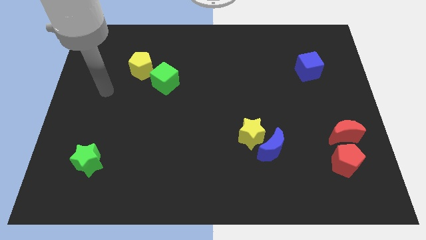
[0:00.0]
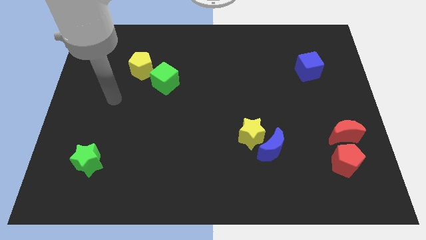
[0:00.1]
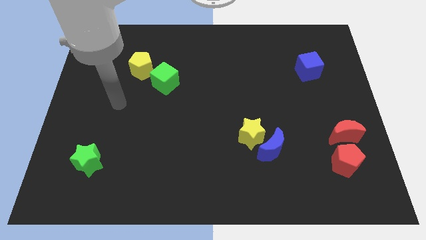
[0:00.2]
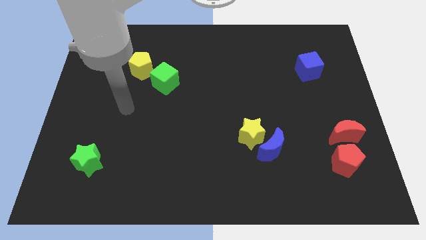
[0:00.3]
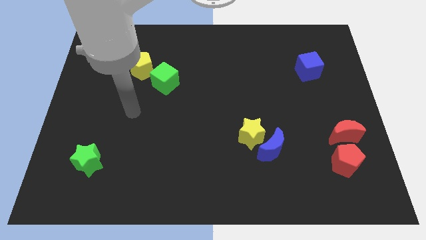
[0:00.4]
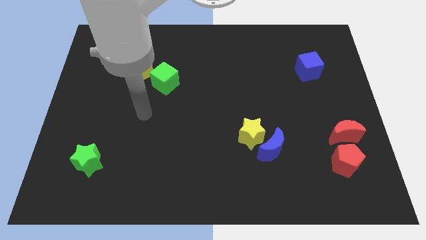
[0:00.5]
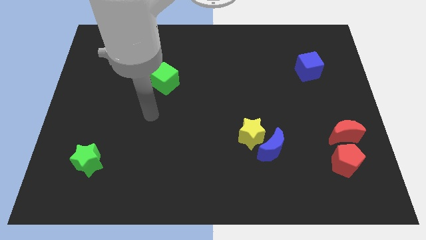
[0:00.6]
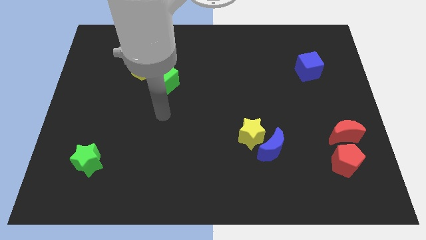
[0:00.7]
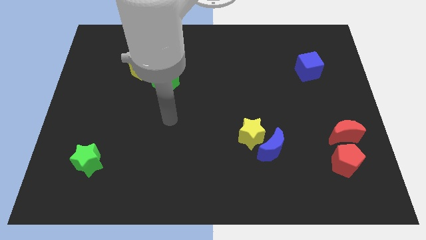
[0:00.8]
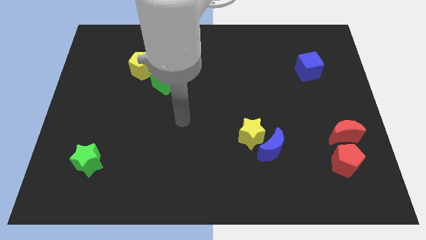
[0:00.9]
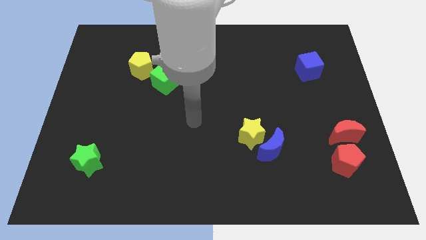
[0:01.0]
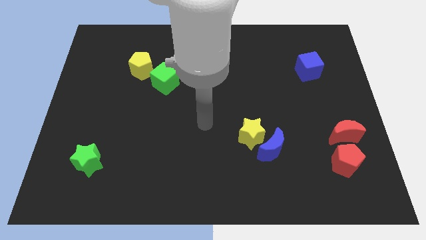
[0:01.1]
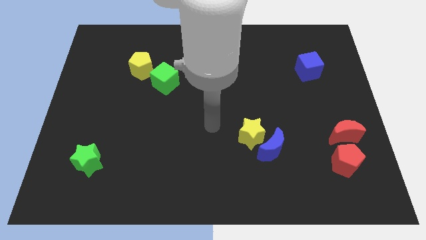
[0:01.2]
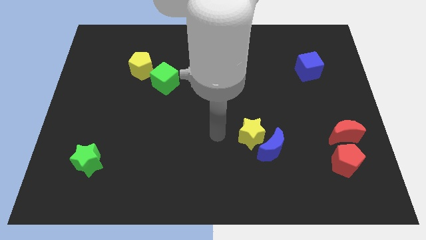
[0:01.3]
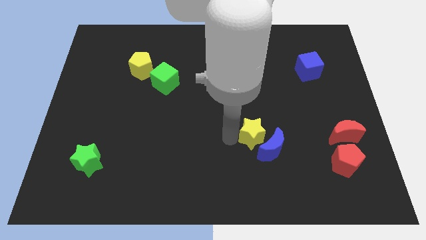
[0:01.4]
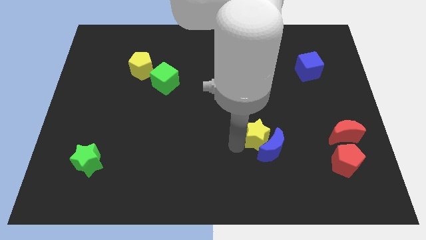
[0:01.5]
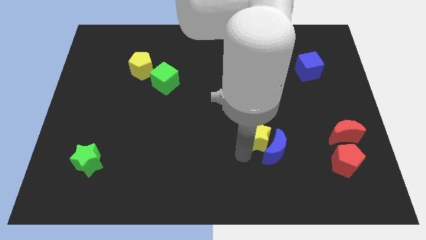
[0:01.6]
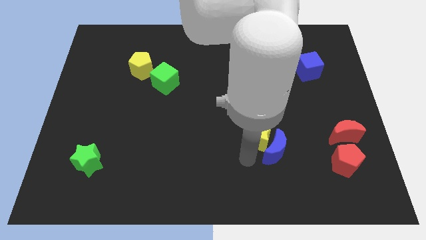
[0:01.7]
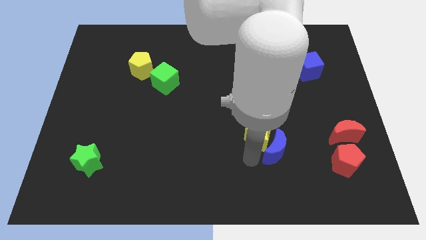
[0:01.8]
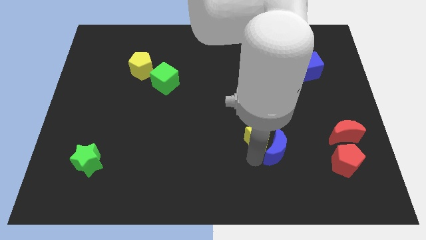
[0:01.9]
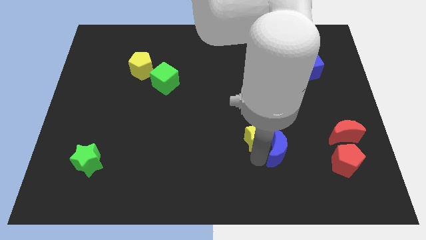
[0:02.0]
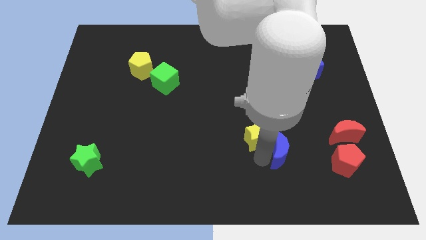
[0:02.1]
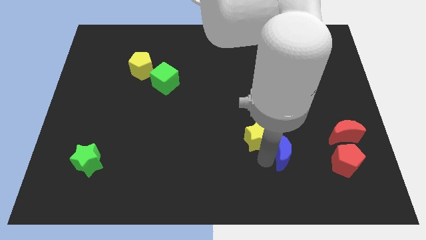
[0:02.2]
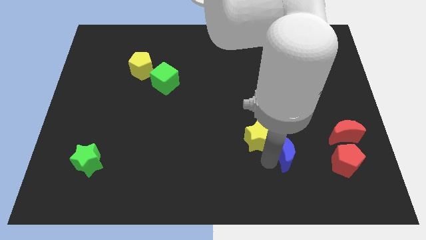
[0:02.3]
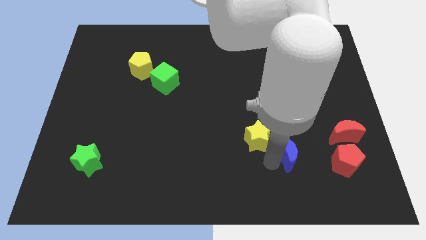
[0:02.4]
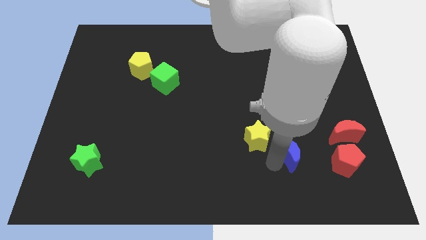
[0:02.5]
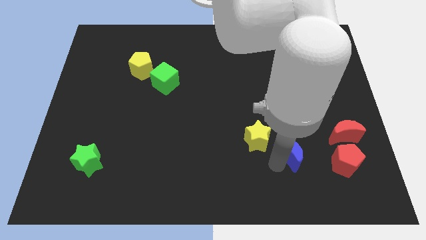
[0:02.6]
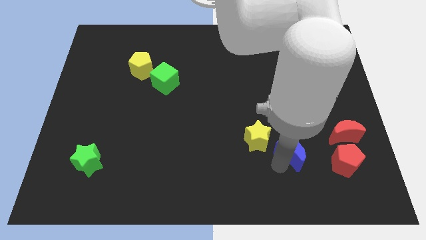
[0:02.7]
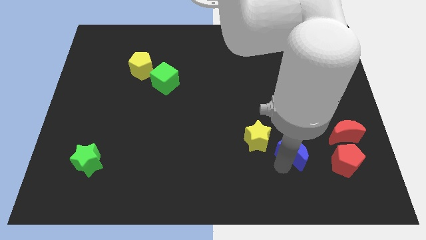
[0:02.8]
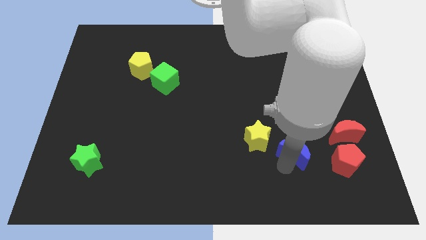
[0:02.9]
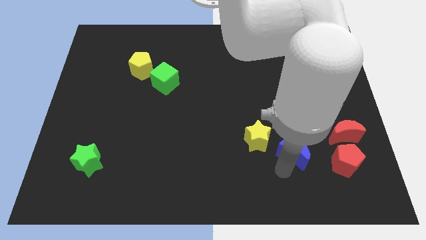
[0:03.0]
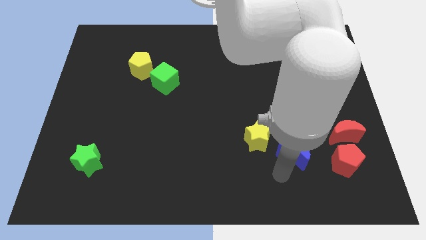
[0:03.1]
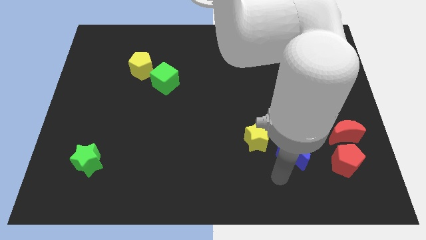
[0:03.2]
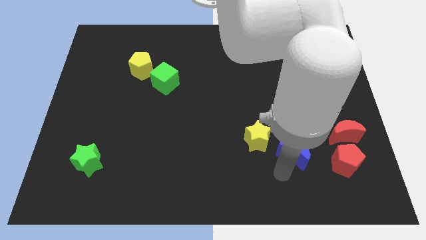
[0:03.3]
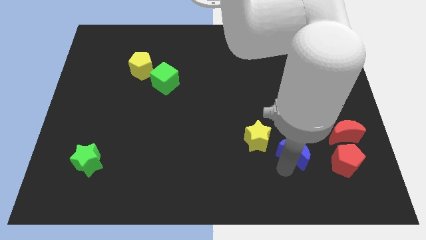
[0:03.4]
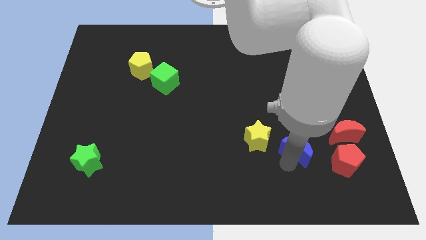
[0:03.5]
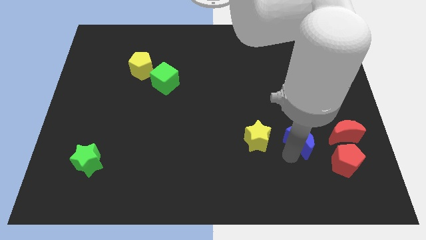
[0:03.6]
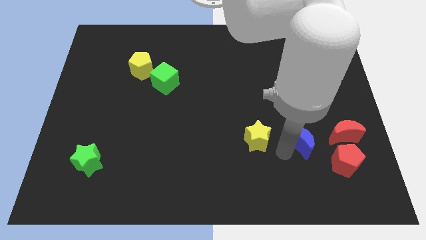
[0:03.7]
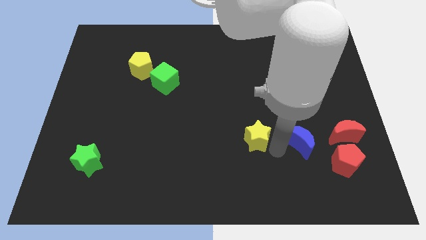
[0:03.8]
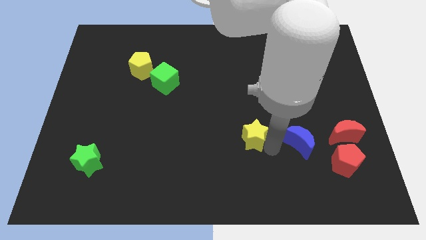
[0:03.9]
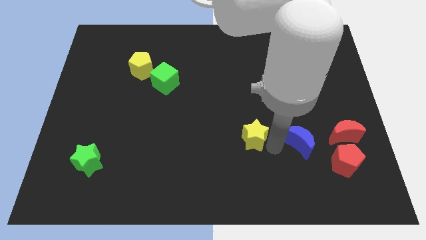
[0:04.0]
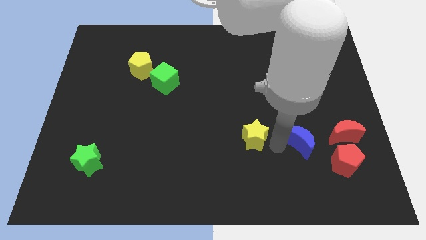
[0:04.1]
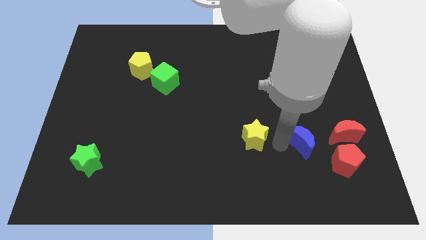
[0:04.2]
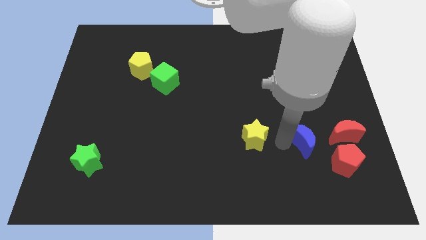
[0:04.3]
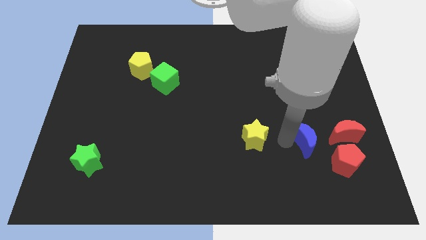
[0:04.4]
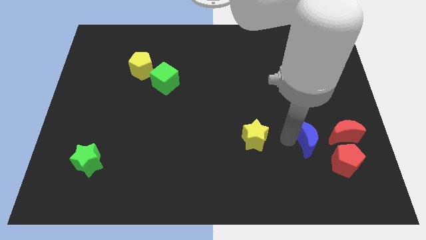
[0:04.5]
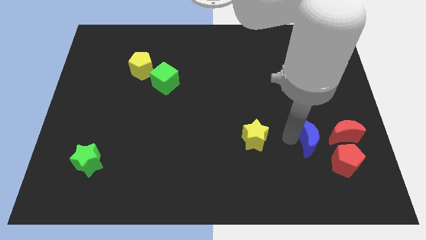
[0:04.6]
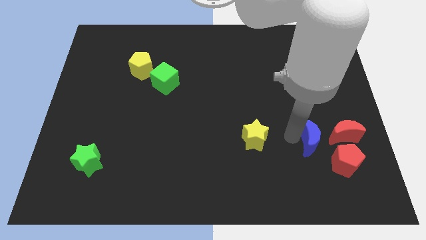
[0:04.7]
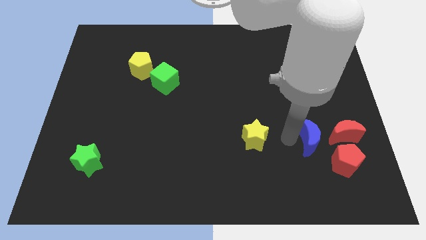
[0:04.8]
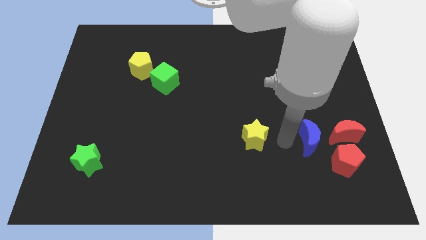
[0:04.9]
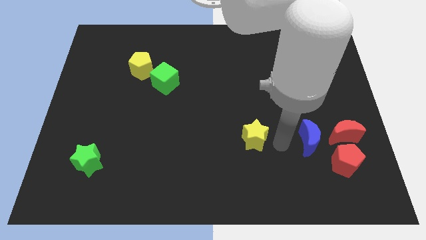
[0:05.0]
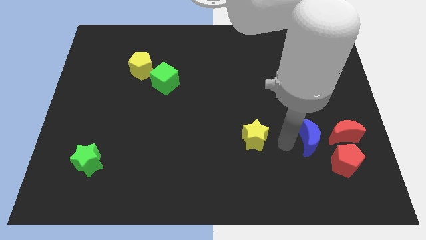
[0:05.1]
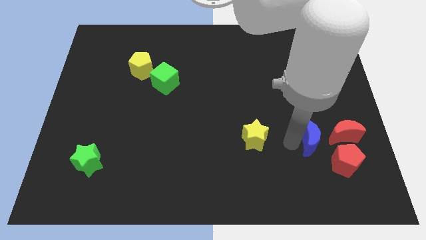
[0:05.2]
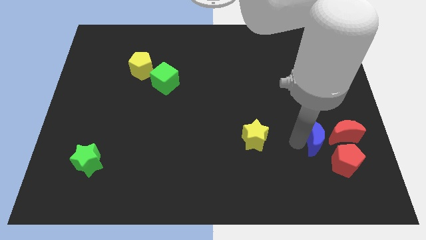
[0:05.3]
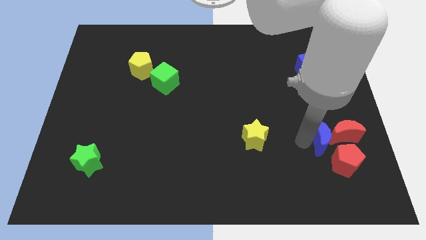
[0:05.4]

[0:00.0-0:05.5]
push the blue moon next to the red moon
